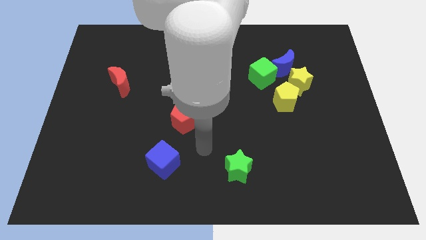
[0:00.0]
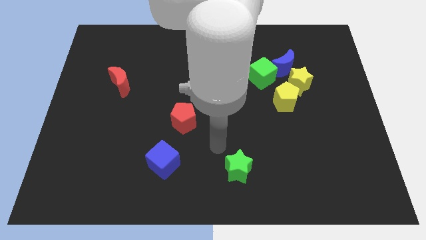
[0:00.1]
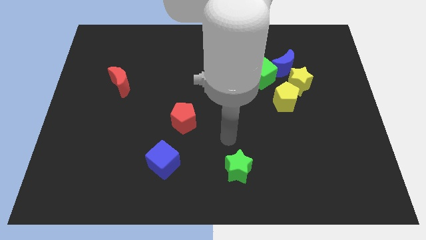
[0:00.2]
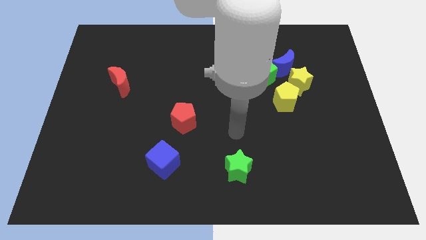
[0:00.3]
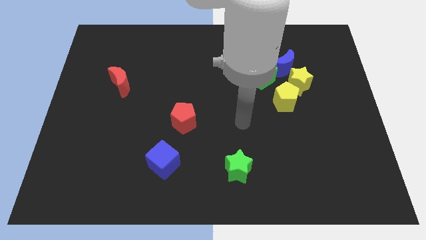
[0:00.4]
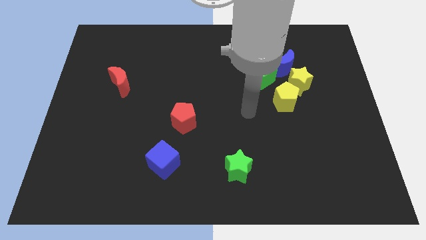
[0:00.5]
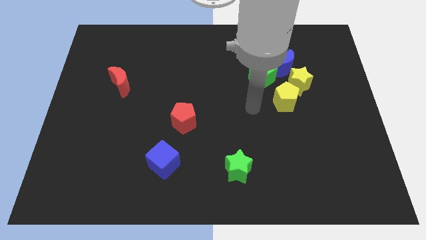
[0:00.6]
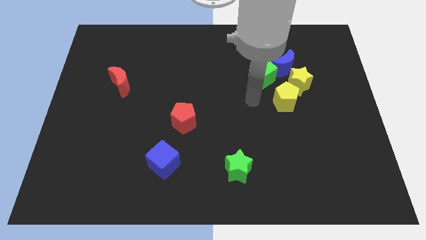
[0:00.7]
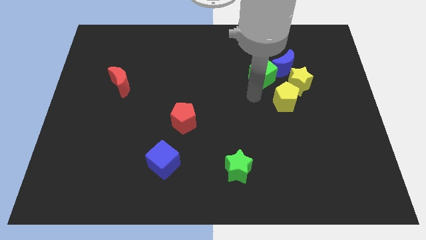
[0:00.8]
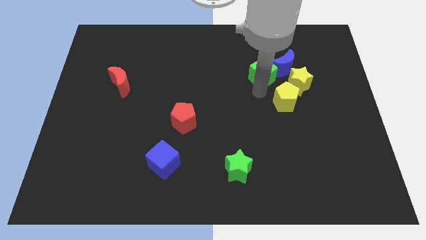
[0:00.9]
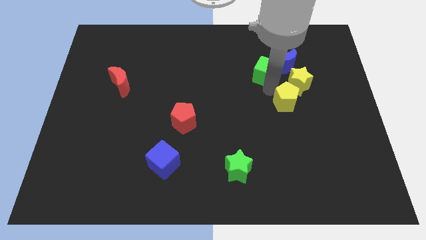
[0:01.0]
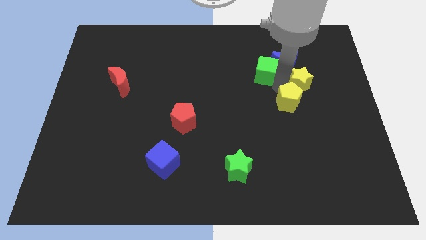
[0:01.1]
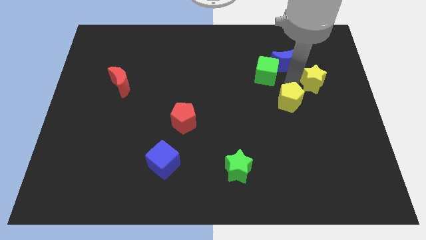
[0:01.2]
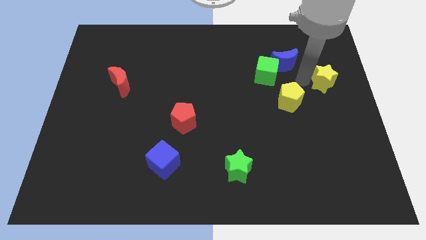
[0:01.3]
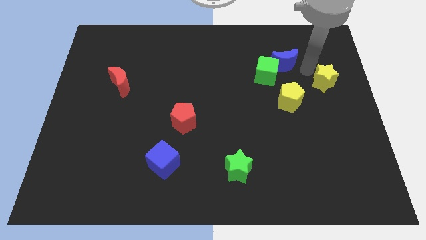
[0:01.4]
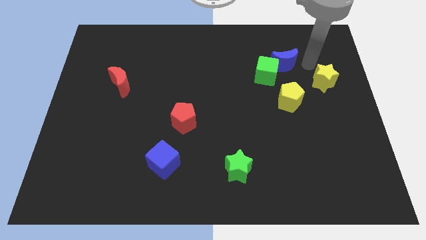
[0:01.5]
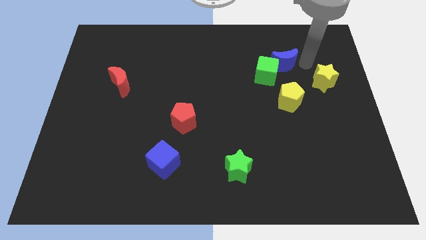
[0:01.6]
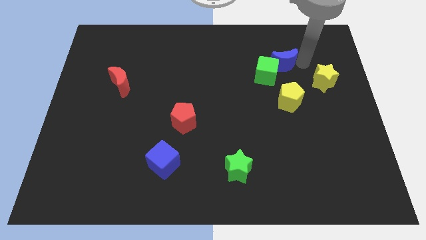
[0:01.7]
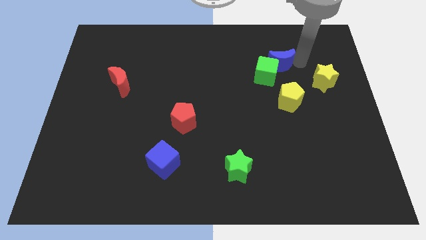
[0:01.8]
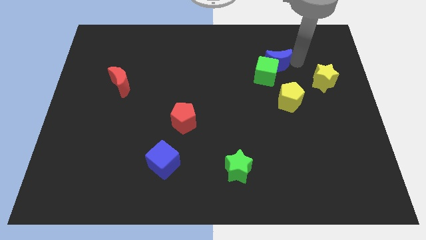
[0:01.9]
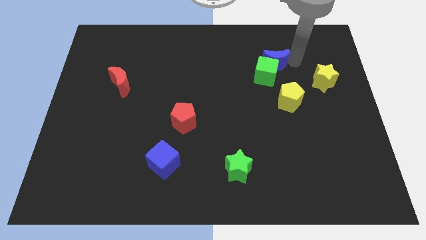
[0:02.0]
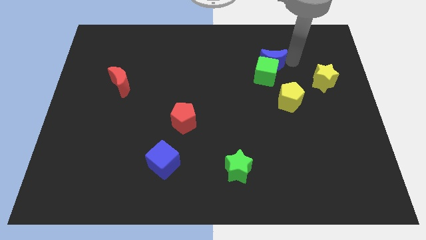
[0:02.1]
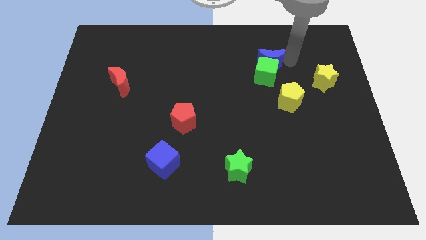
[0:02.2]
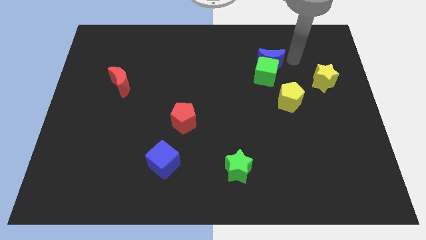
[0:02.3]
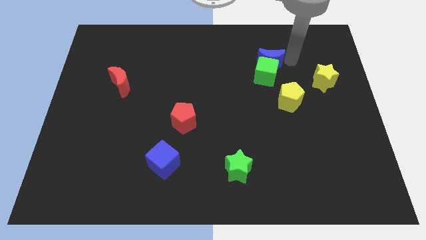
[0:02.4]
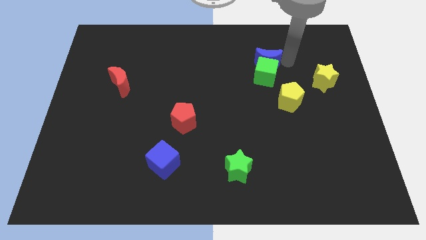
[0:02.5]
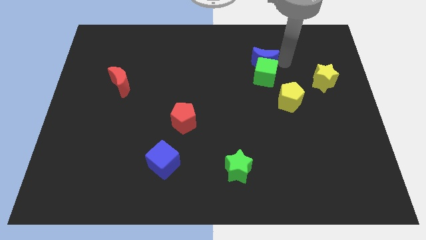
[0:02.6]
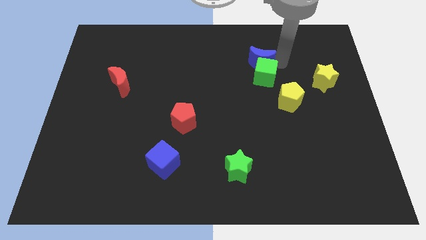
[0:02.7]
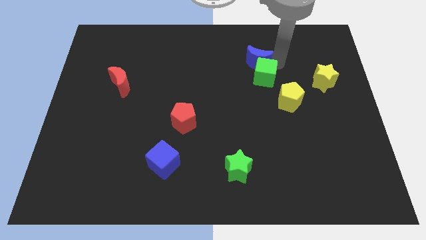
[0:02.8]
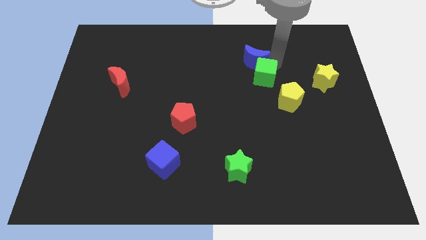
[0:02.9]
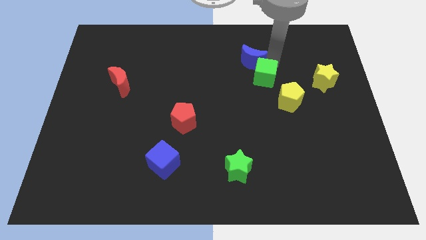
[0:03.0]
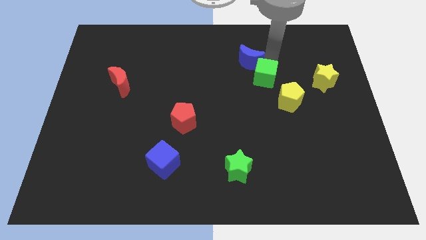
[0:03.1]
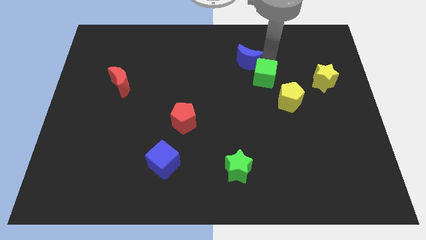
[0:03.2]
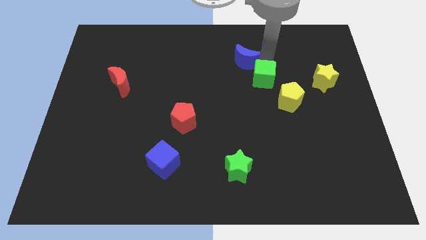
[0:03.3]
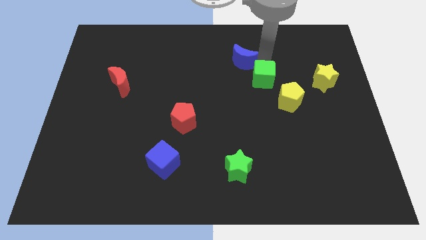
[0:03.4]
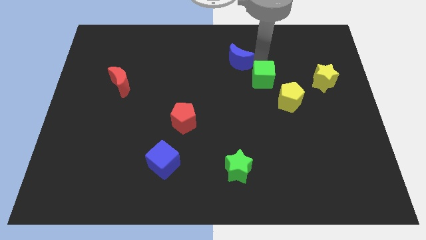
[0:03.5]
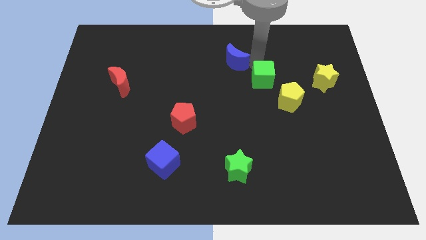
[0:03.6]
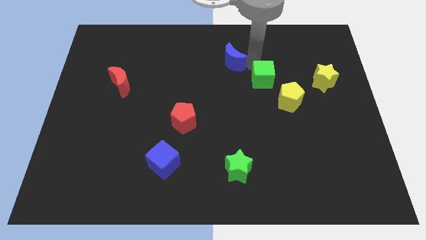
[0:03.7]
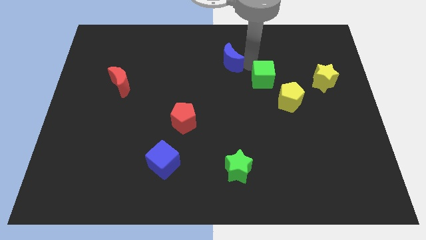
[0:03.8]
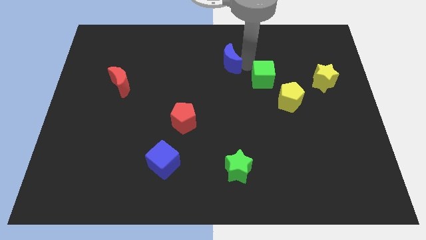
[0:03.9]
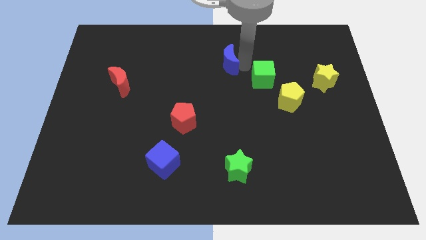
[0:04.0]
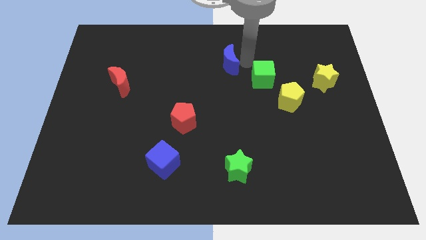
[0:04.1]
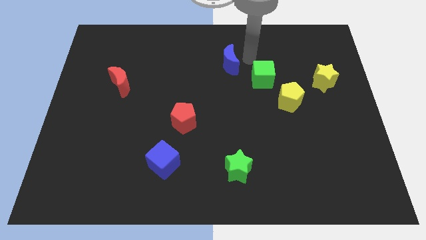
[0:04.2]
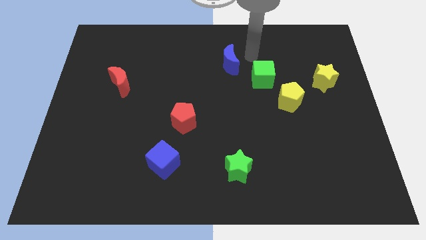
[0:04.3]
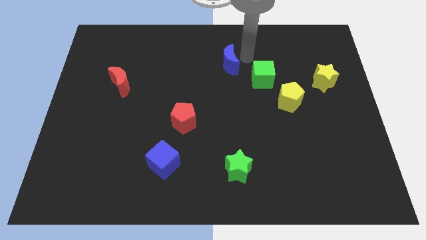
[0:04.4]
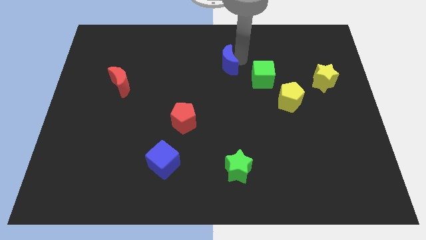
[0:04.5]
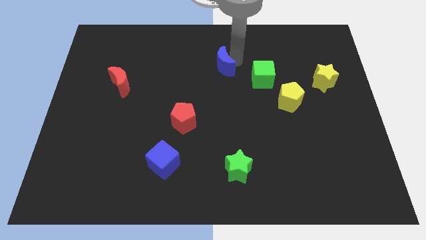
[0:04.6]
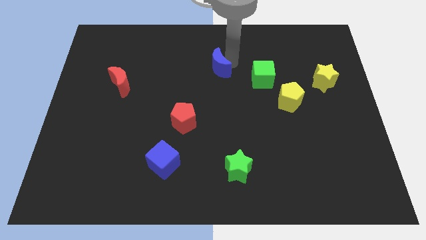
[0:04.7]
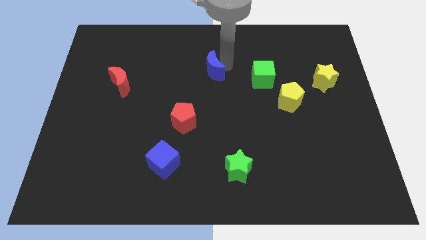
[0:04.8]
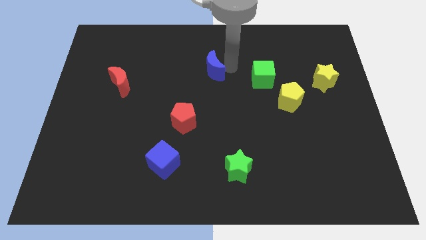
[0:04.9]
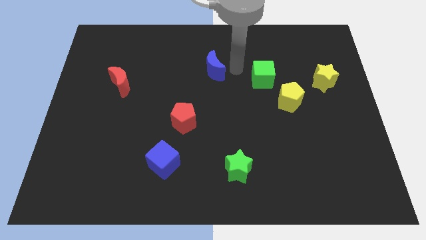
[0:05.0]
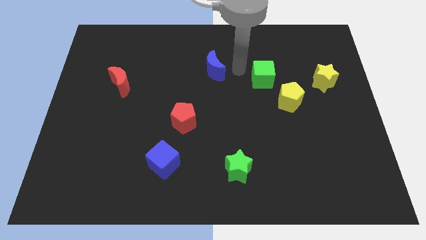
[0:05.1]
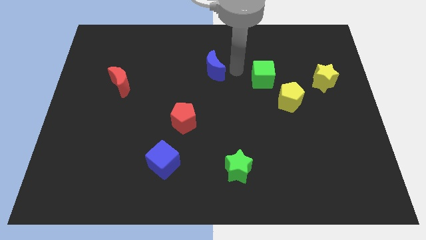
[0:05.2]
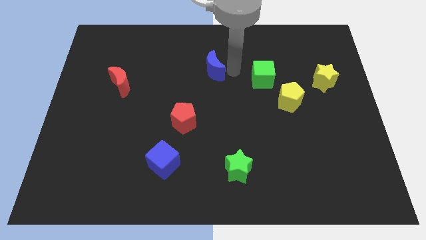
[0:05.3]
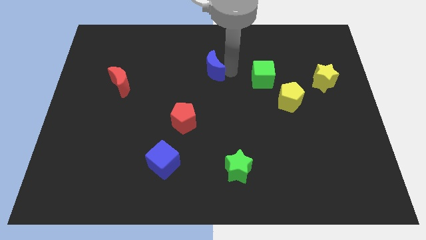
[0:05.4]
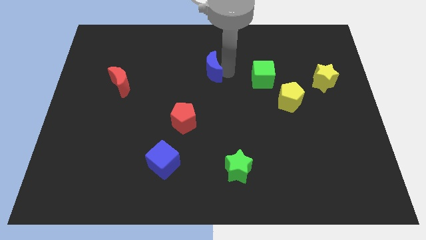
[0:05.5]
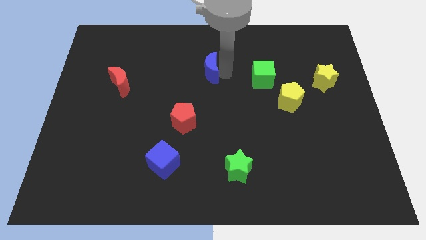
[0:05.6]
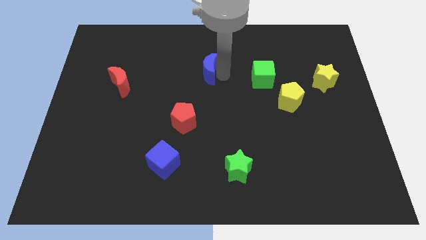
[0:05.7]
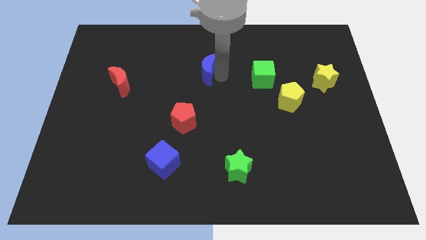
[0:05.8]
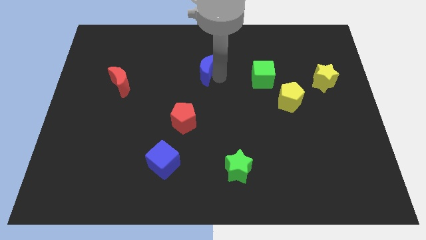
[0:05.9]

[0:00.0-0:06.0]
move the blue moon to the left

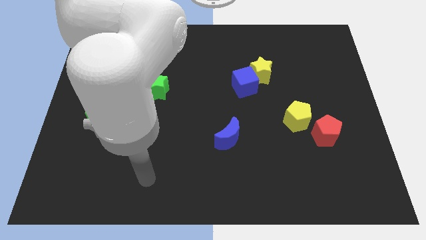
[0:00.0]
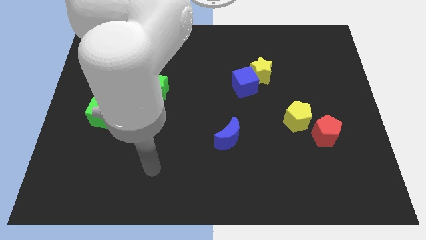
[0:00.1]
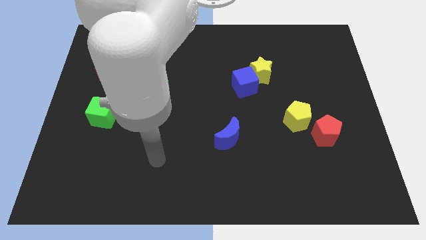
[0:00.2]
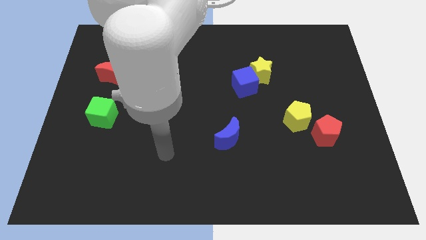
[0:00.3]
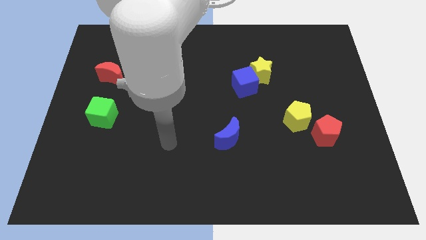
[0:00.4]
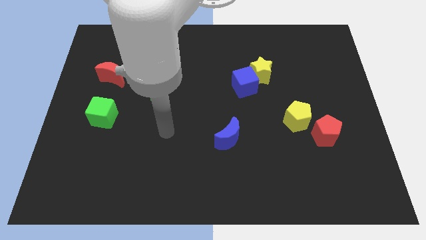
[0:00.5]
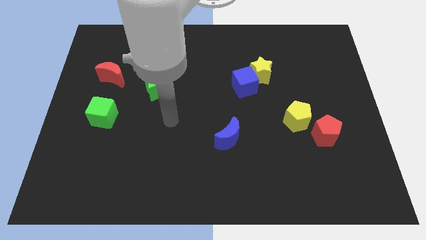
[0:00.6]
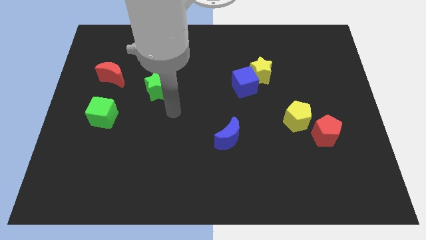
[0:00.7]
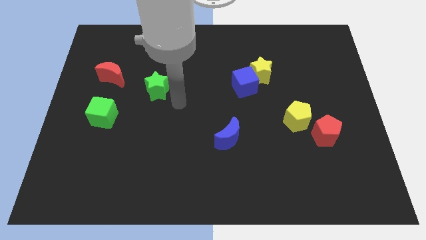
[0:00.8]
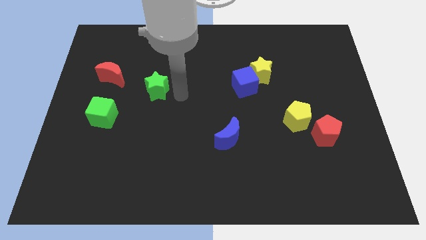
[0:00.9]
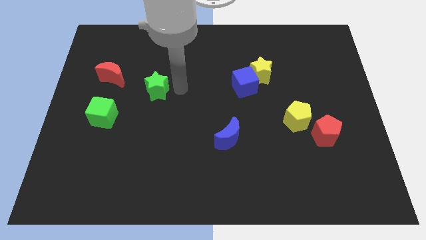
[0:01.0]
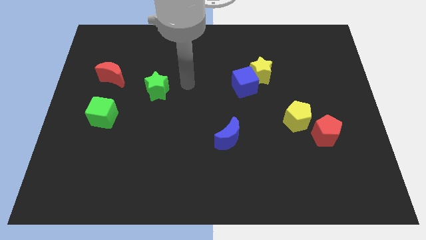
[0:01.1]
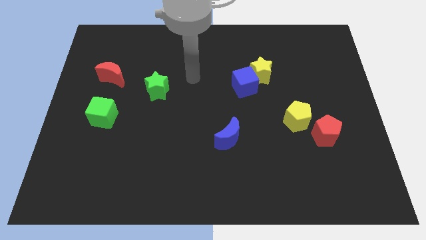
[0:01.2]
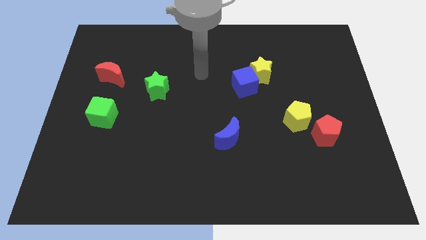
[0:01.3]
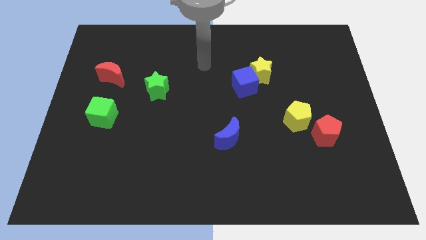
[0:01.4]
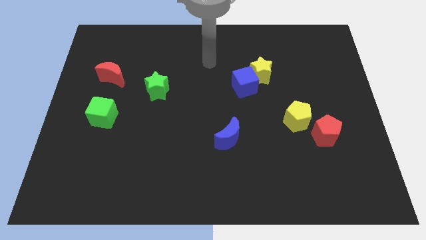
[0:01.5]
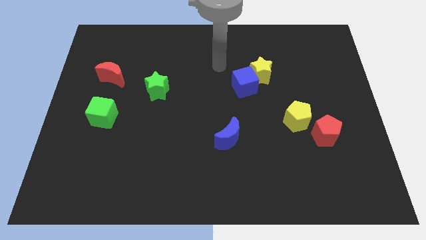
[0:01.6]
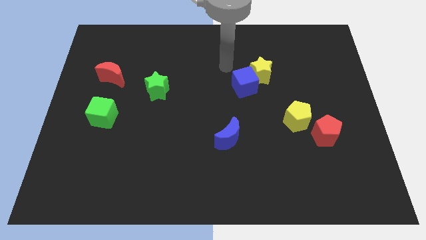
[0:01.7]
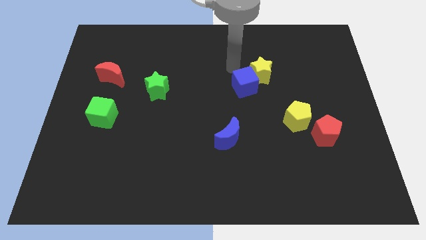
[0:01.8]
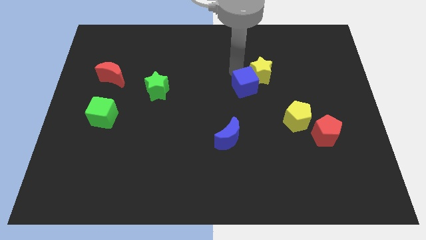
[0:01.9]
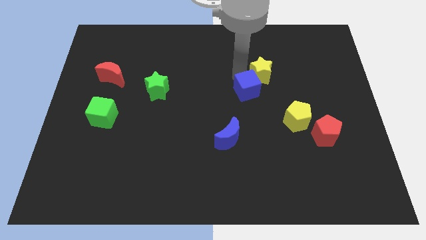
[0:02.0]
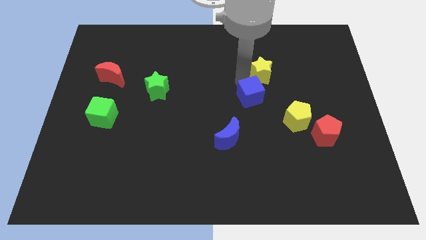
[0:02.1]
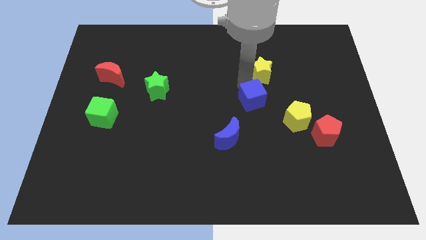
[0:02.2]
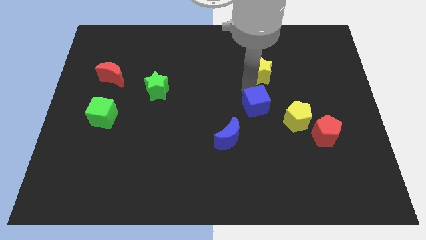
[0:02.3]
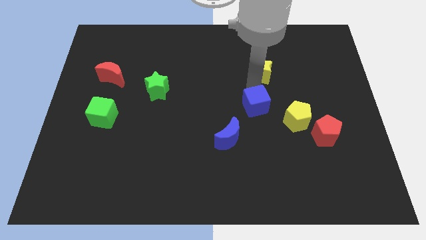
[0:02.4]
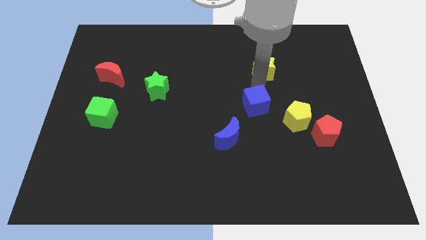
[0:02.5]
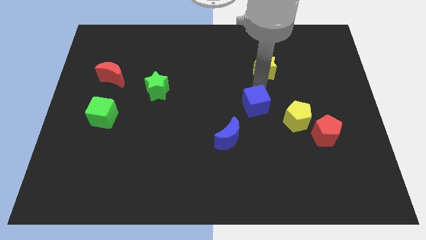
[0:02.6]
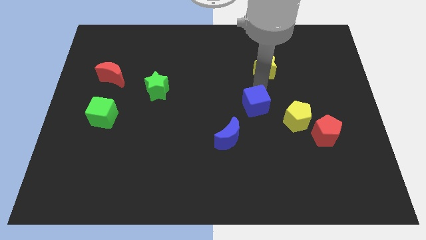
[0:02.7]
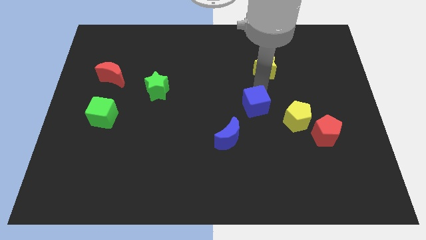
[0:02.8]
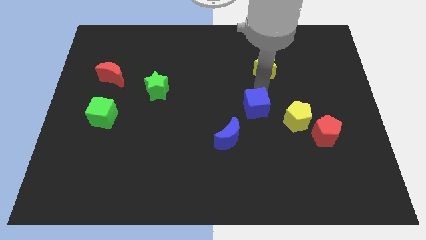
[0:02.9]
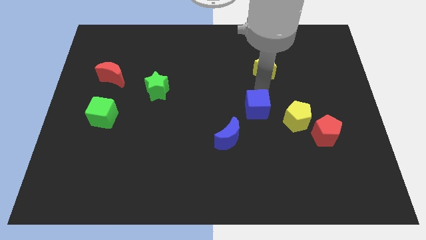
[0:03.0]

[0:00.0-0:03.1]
move the blue cube a little downwards
